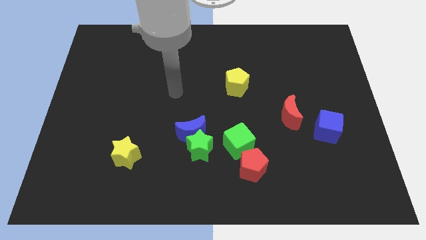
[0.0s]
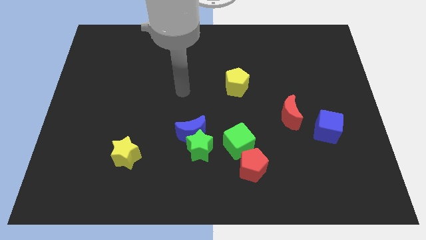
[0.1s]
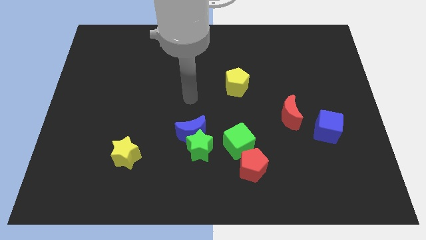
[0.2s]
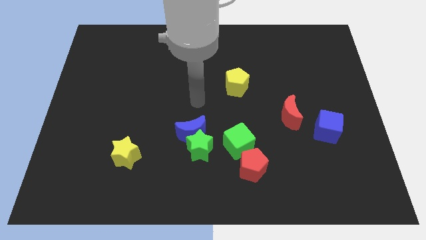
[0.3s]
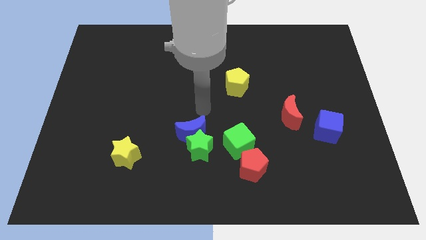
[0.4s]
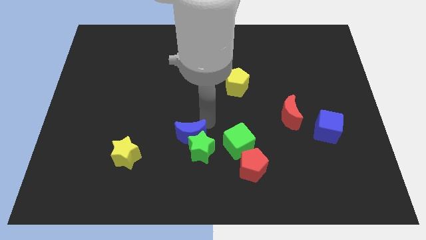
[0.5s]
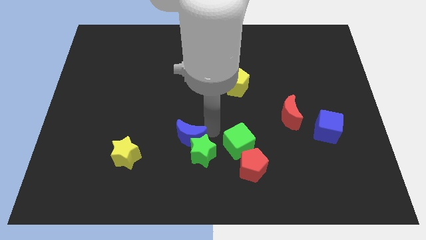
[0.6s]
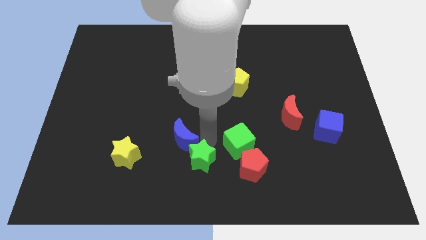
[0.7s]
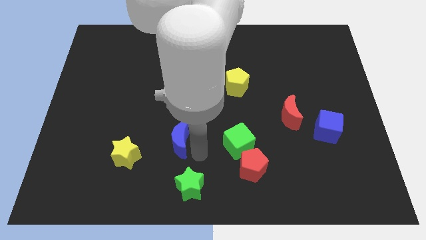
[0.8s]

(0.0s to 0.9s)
move the blue moon away from the green star

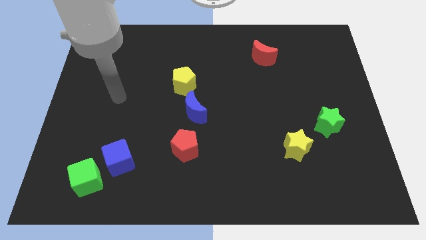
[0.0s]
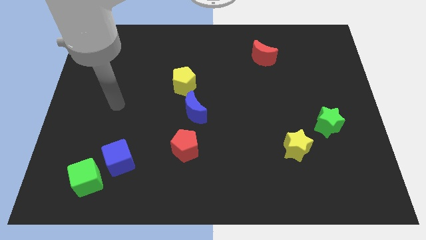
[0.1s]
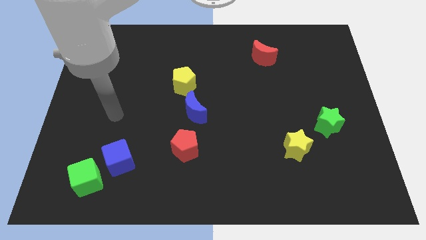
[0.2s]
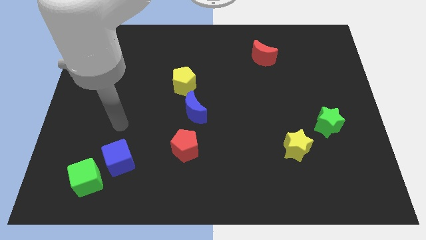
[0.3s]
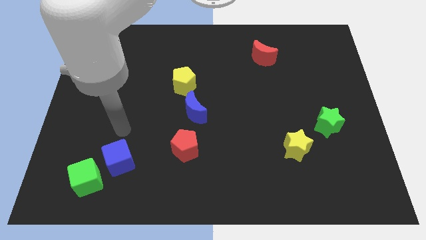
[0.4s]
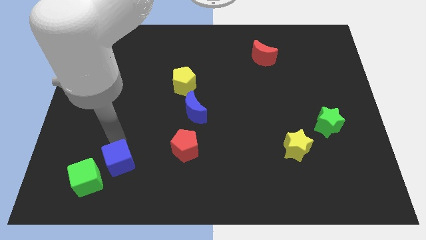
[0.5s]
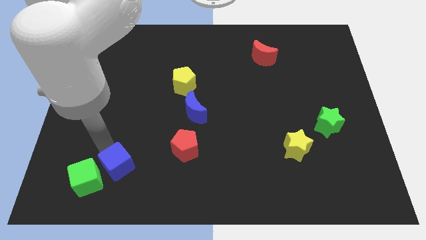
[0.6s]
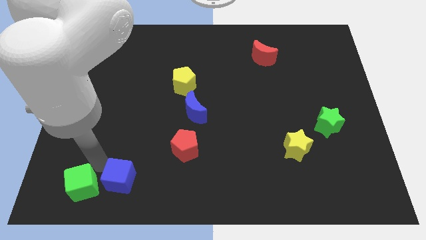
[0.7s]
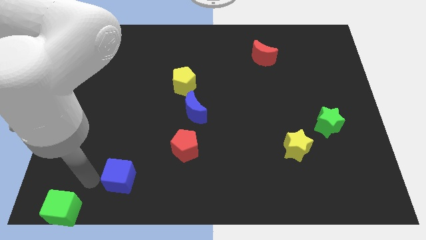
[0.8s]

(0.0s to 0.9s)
pull the blue cube apart from the green cube

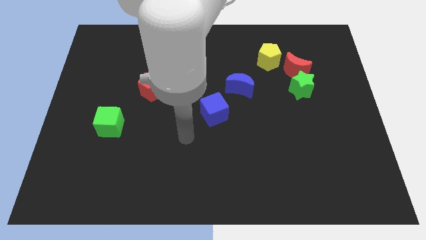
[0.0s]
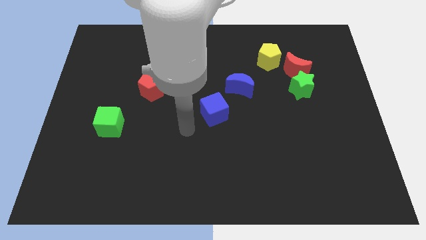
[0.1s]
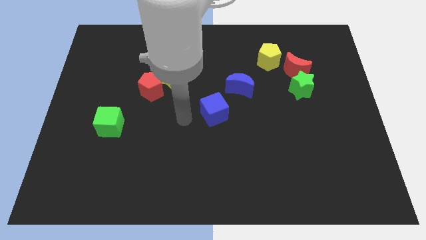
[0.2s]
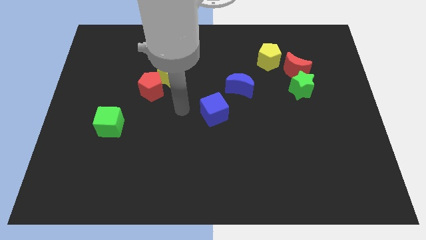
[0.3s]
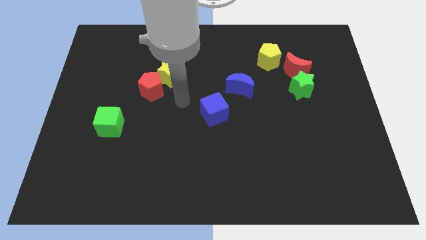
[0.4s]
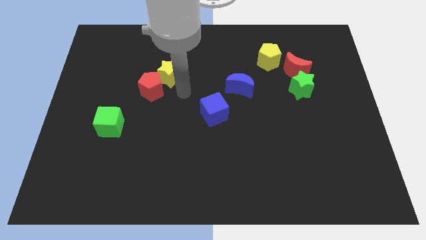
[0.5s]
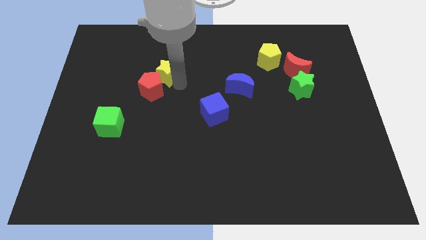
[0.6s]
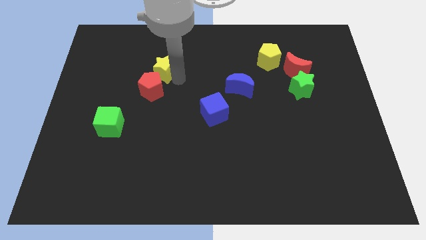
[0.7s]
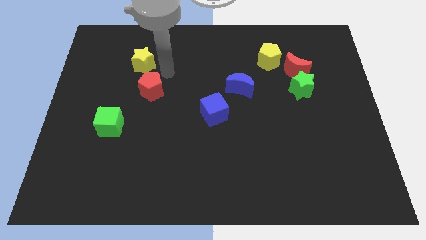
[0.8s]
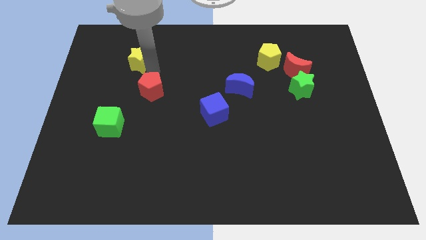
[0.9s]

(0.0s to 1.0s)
pull the red pentagon apart from the yellow star

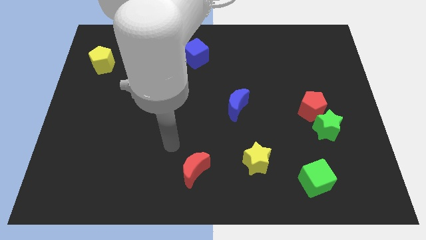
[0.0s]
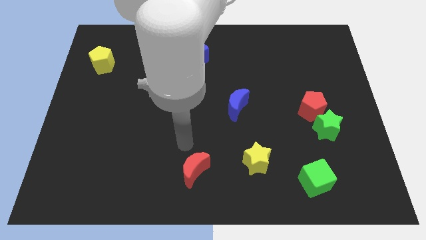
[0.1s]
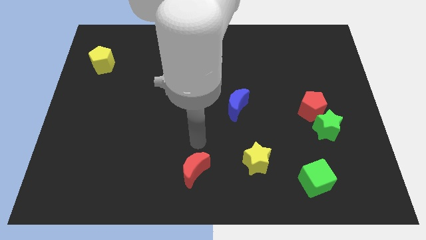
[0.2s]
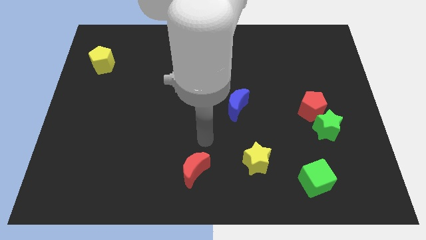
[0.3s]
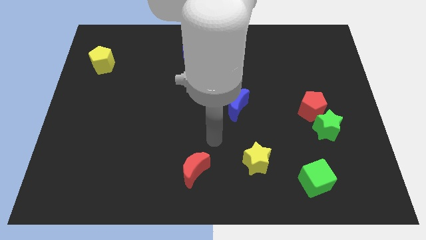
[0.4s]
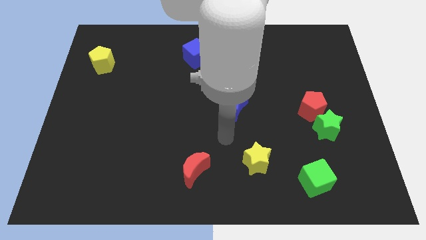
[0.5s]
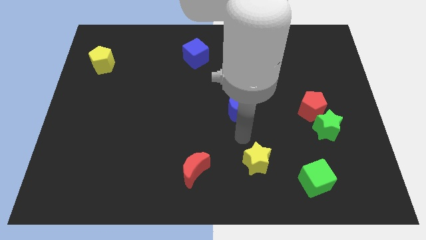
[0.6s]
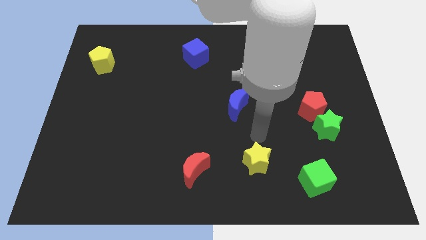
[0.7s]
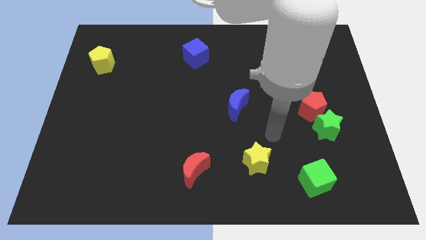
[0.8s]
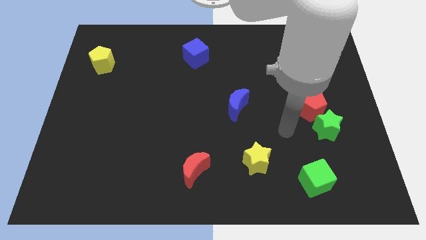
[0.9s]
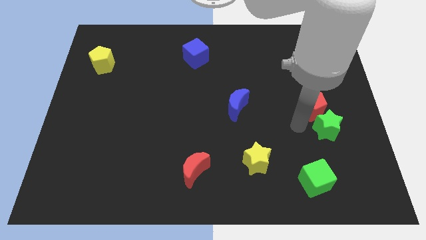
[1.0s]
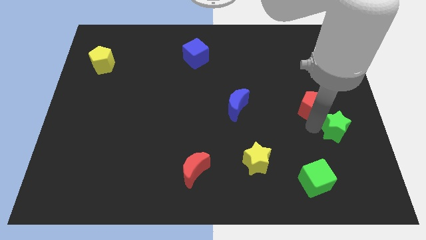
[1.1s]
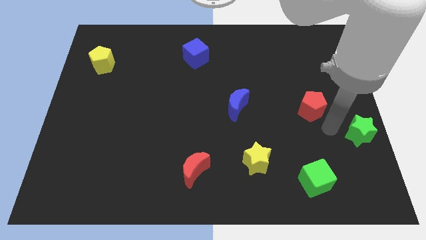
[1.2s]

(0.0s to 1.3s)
separate the red pentagon from the green star

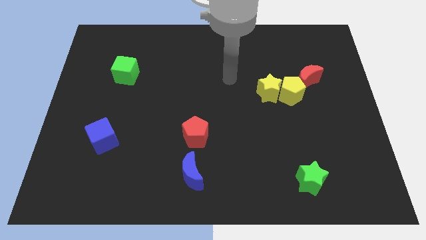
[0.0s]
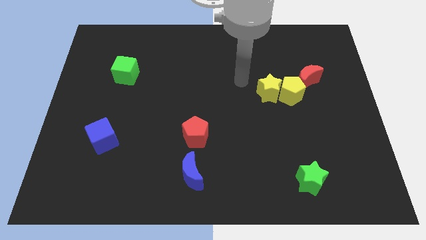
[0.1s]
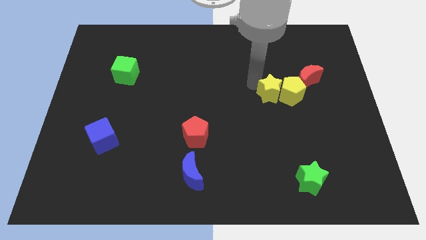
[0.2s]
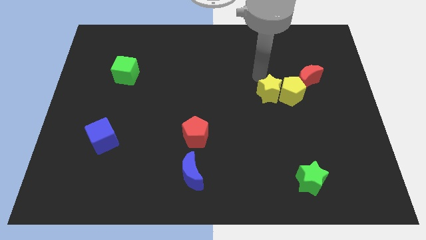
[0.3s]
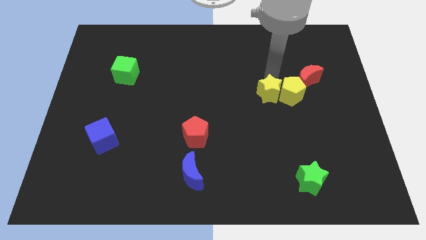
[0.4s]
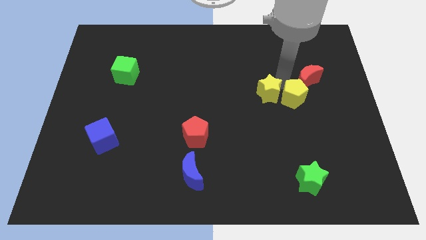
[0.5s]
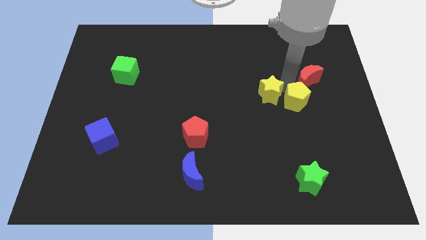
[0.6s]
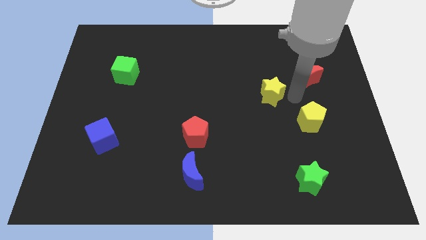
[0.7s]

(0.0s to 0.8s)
pull the yellow star apart from the yellow pentagon

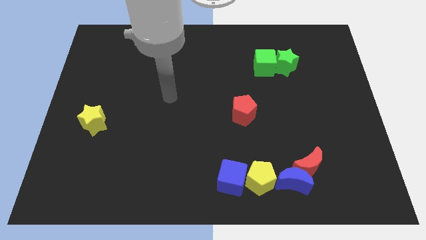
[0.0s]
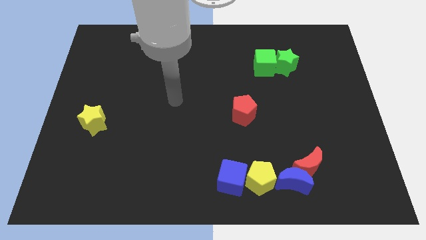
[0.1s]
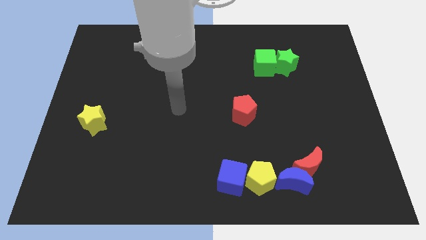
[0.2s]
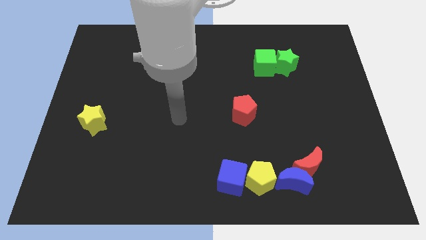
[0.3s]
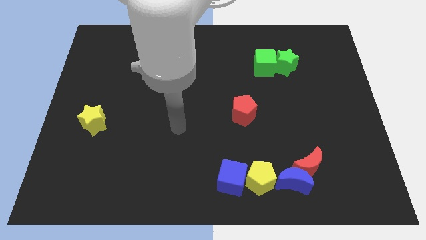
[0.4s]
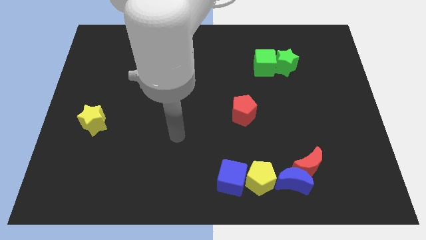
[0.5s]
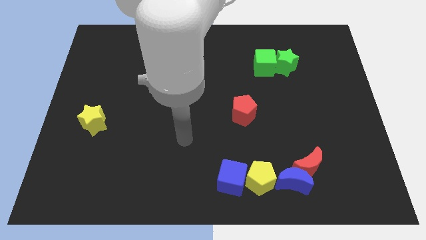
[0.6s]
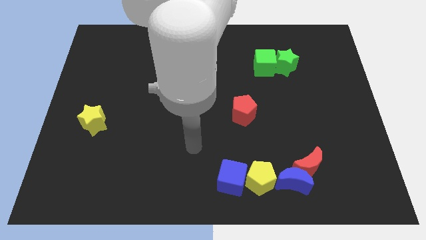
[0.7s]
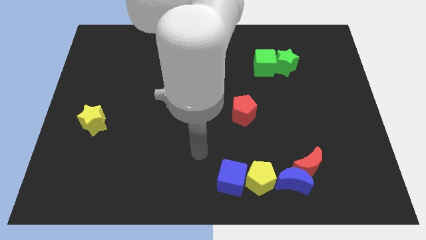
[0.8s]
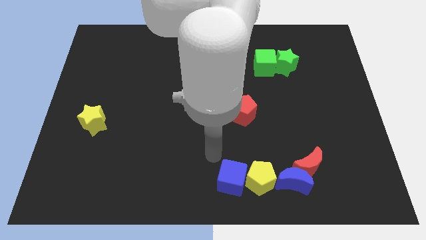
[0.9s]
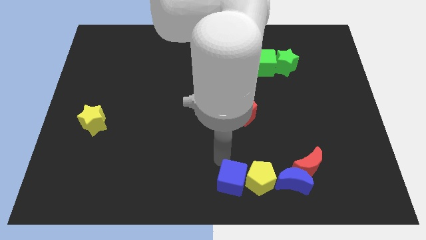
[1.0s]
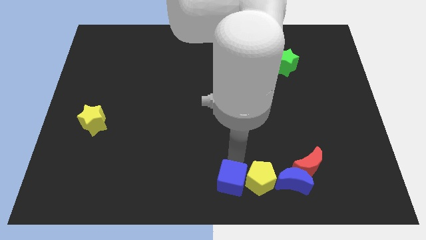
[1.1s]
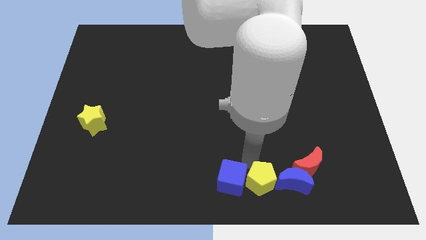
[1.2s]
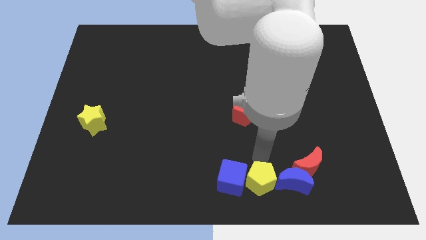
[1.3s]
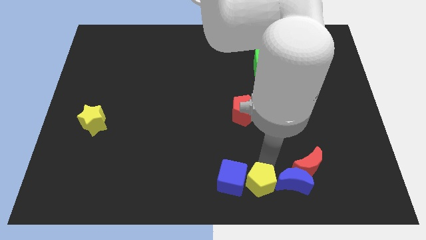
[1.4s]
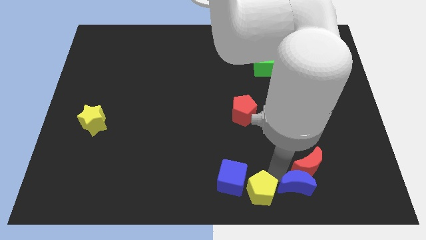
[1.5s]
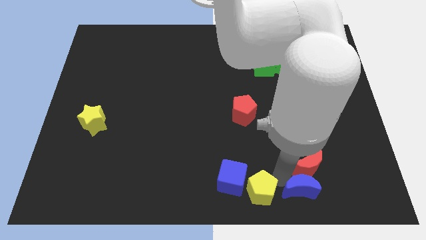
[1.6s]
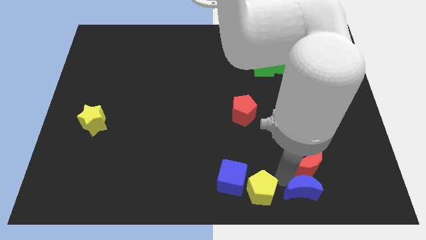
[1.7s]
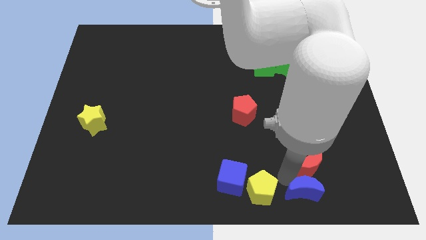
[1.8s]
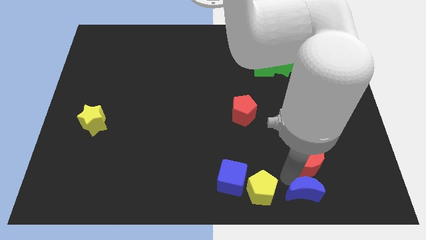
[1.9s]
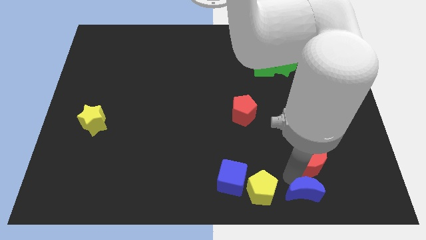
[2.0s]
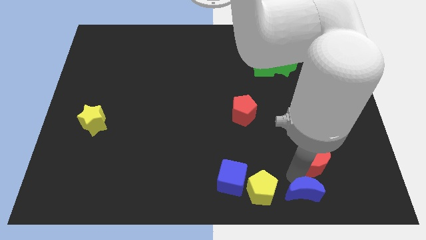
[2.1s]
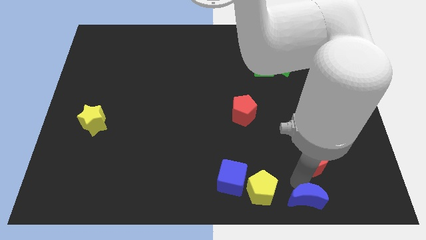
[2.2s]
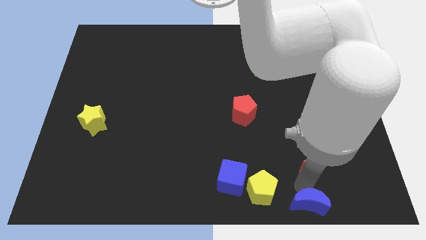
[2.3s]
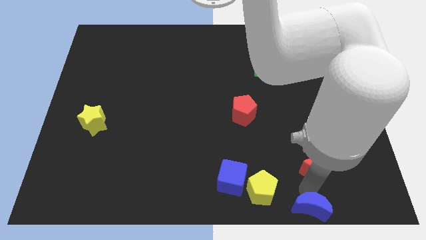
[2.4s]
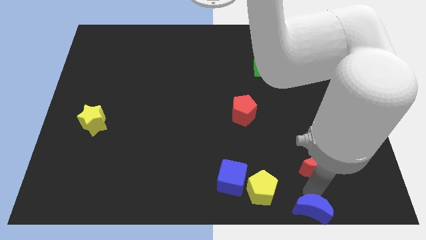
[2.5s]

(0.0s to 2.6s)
separate the red moon from the blue moon

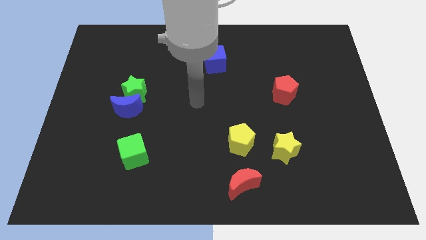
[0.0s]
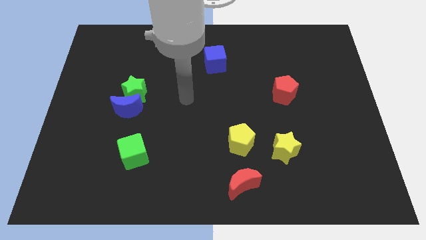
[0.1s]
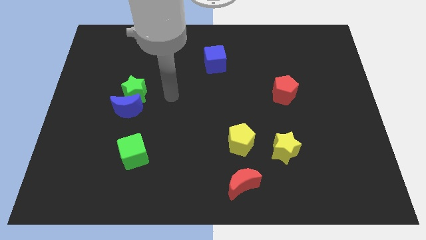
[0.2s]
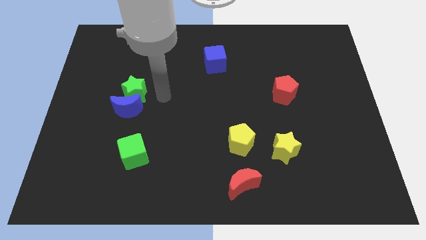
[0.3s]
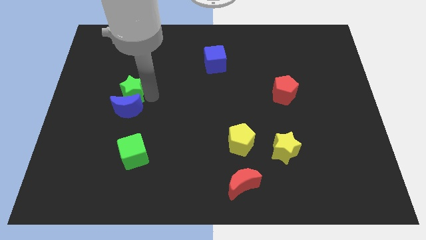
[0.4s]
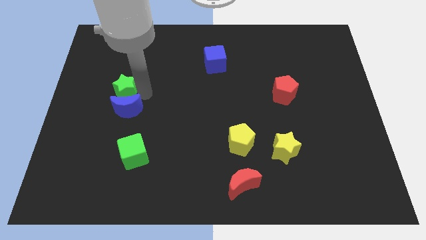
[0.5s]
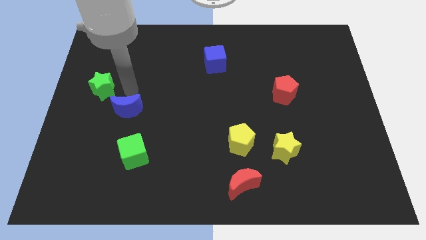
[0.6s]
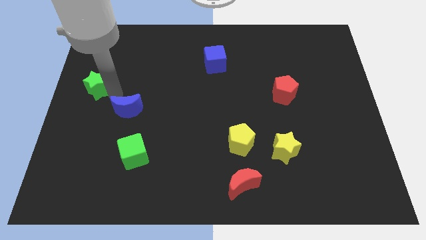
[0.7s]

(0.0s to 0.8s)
pull the blue moon apart from the green star

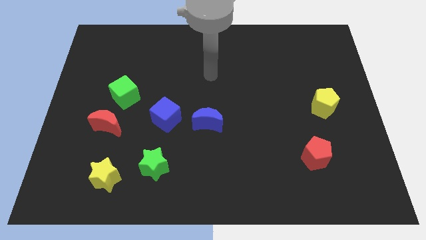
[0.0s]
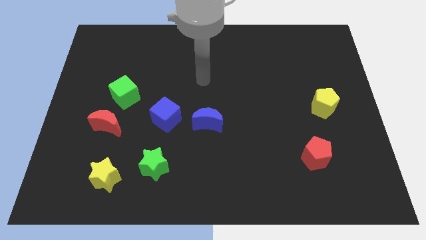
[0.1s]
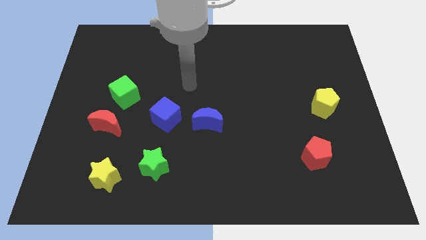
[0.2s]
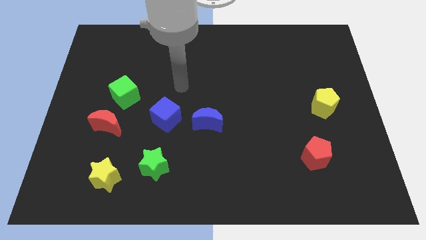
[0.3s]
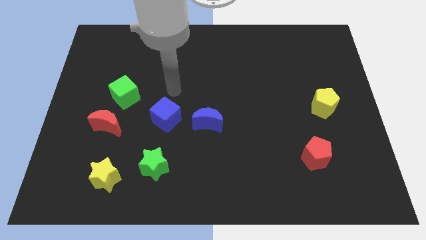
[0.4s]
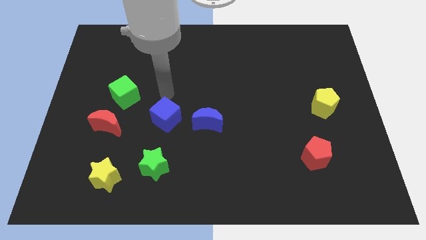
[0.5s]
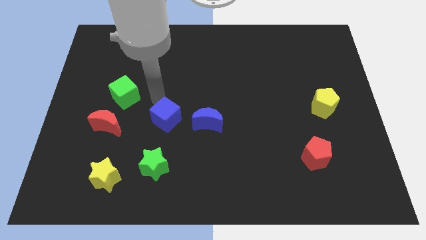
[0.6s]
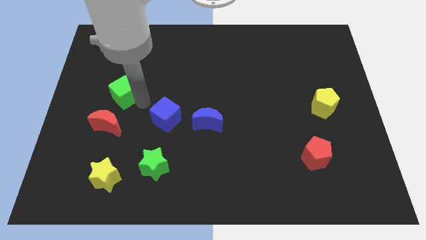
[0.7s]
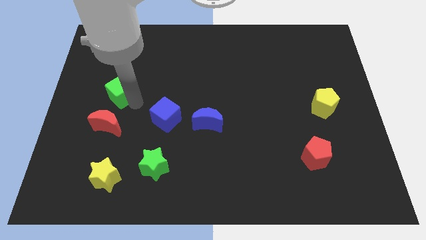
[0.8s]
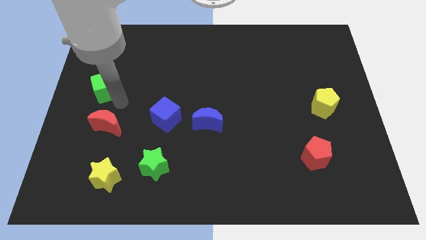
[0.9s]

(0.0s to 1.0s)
pull the red moon apart from the green cube
